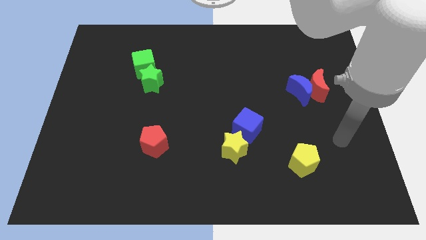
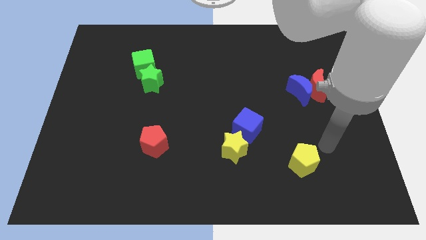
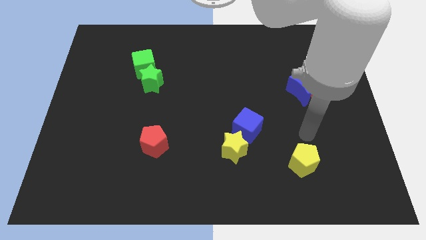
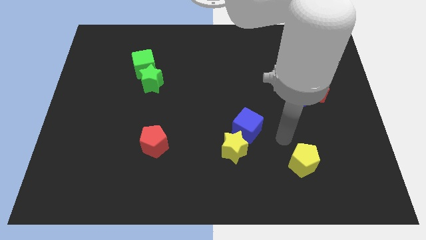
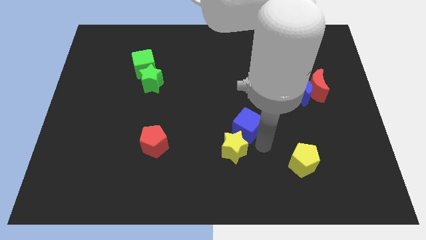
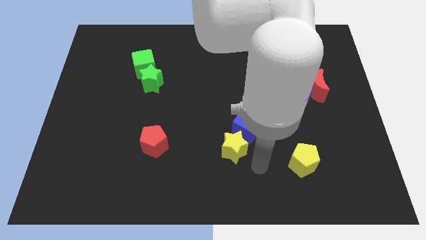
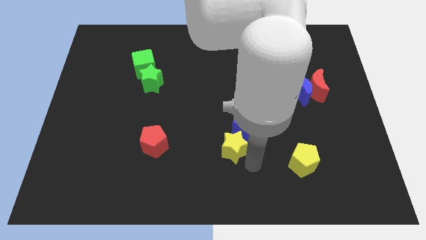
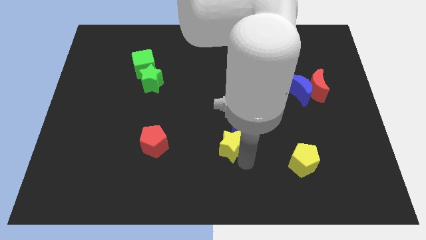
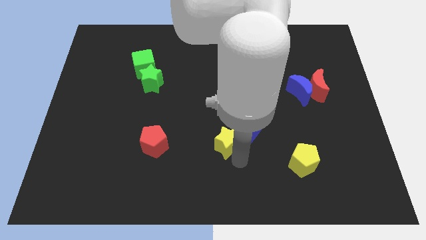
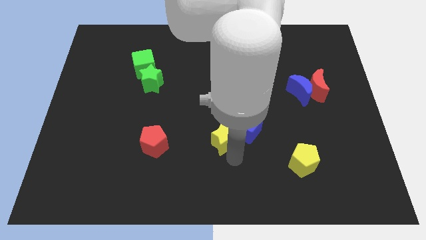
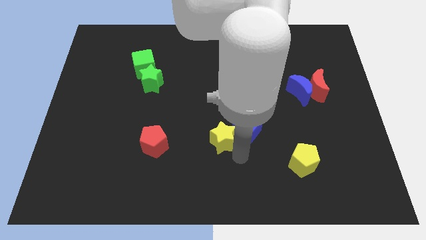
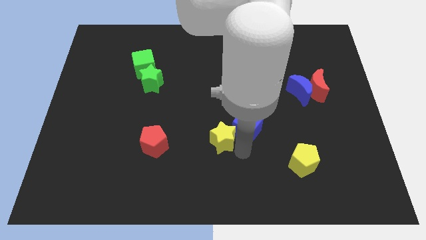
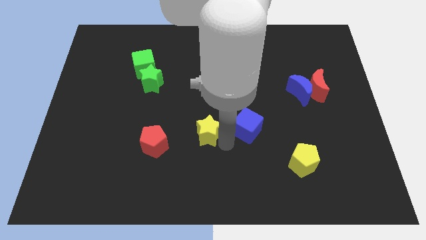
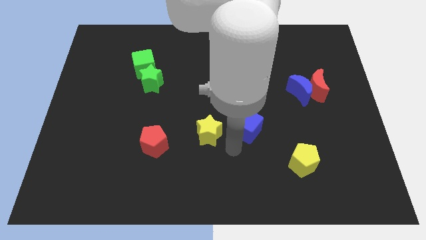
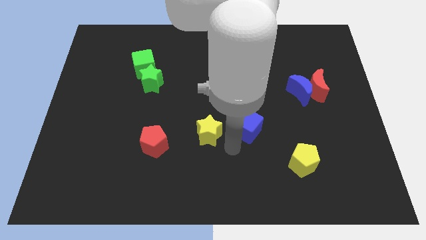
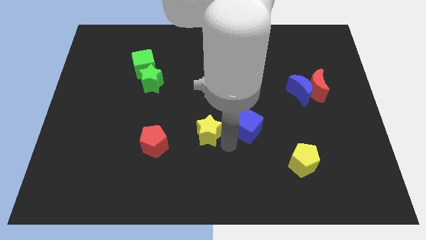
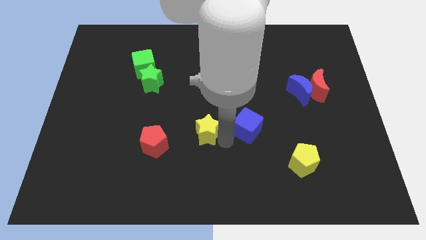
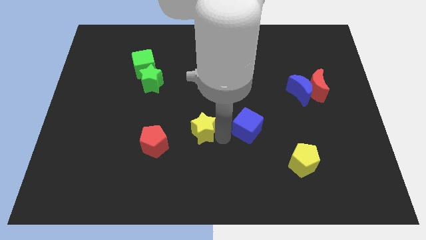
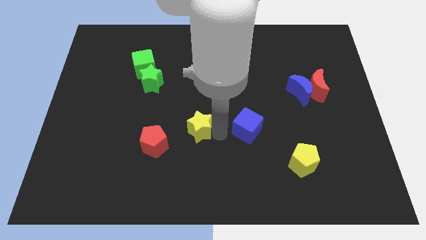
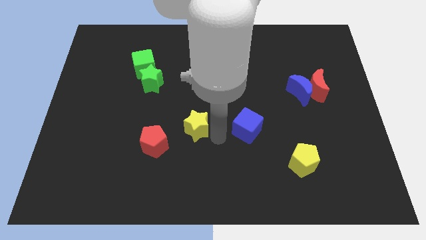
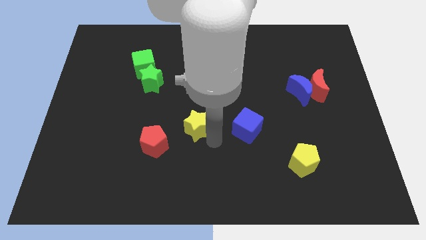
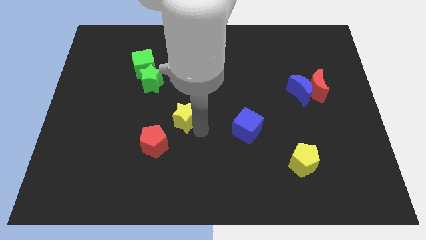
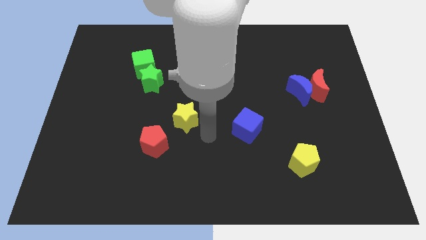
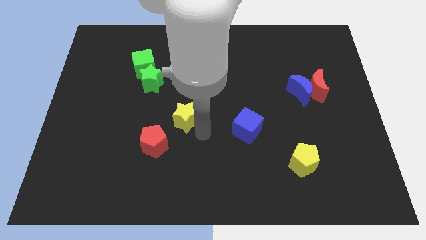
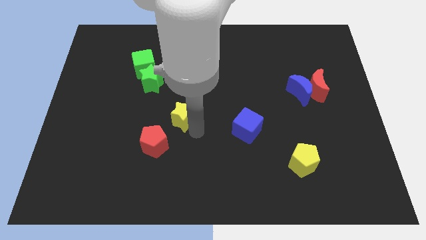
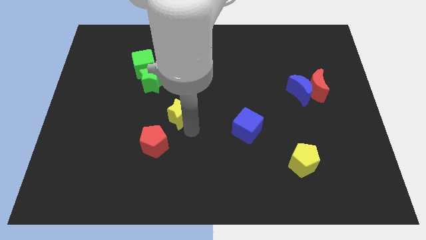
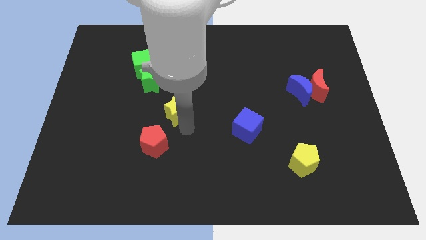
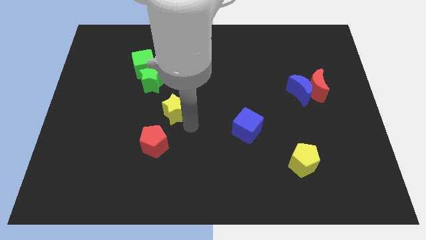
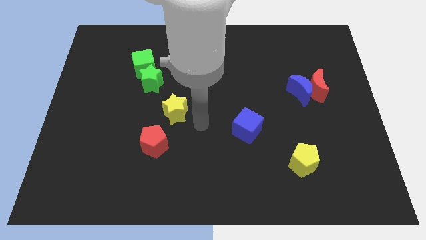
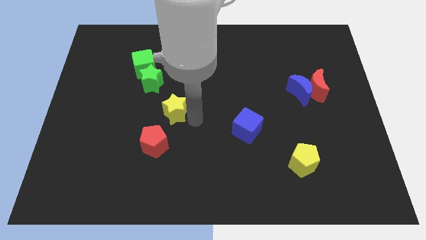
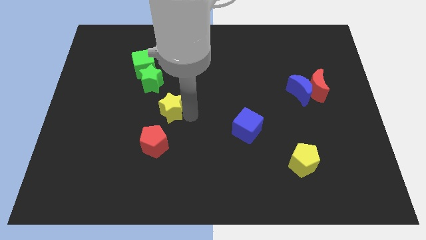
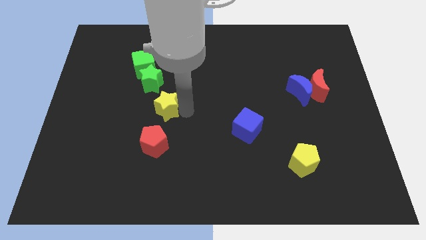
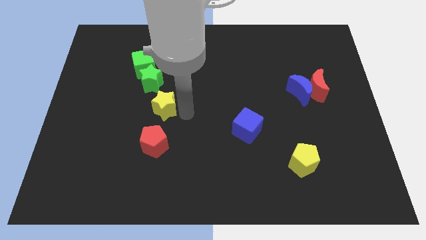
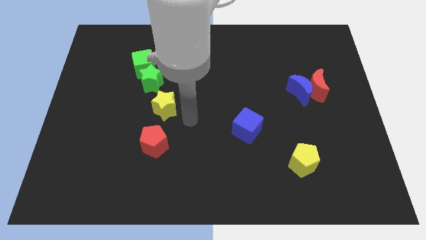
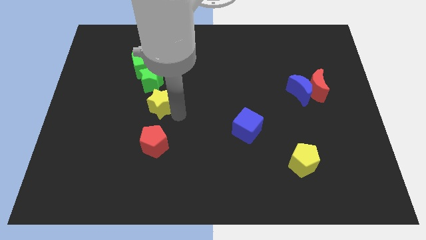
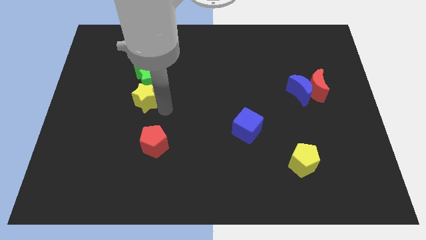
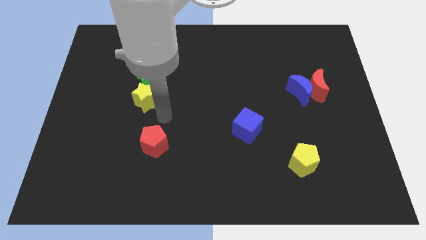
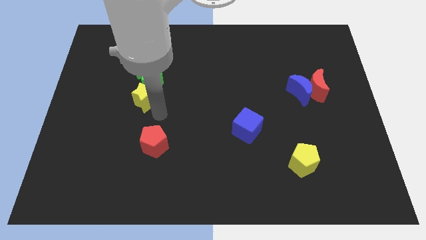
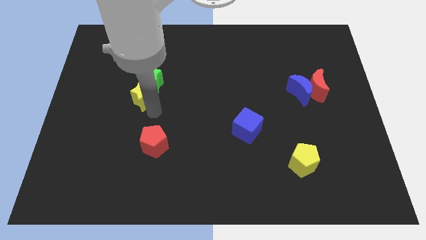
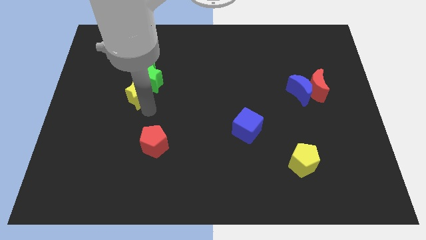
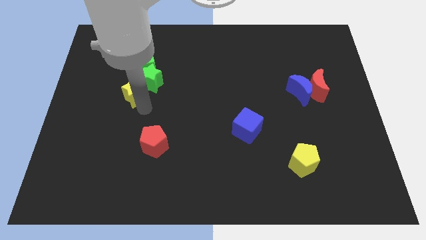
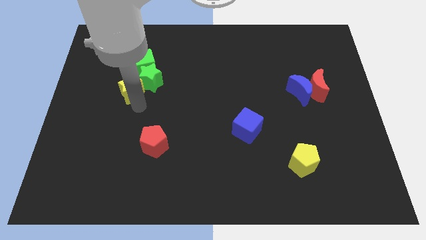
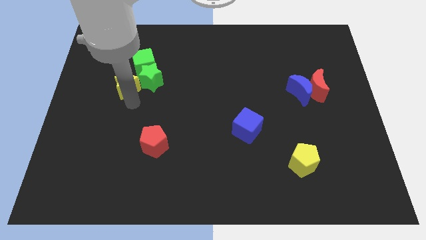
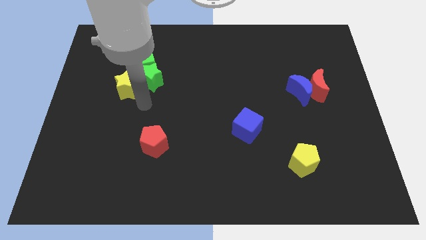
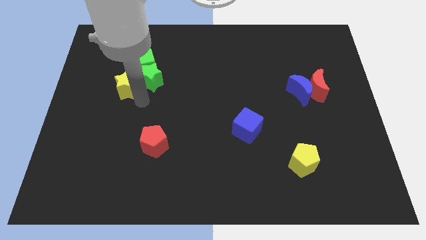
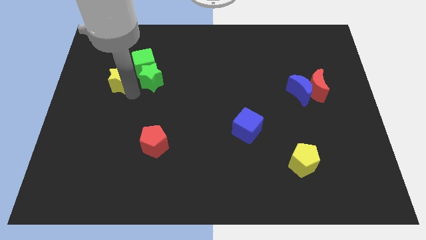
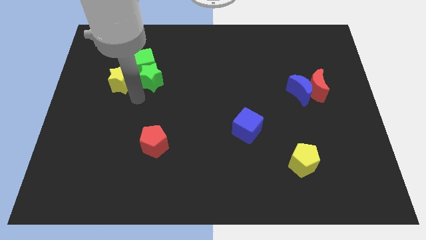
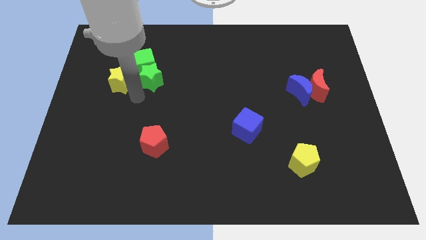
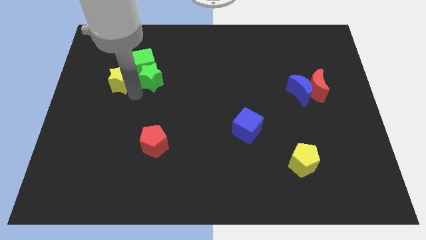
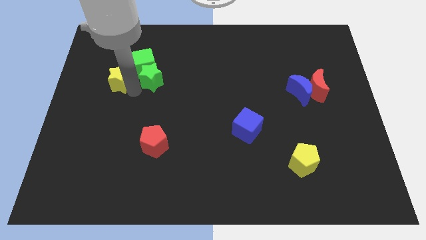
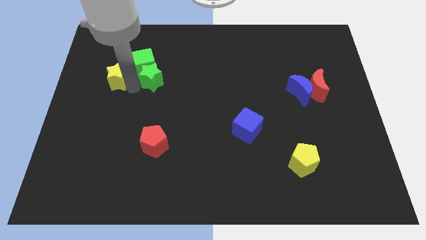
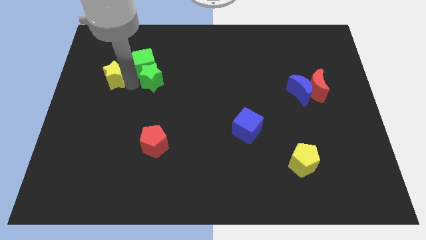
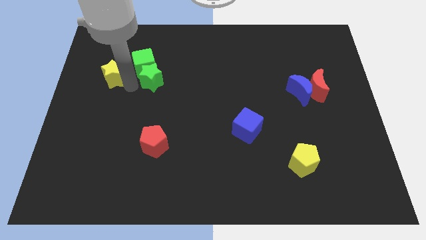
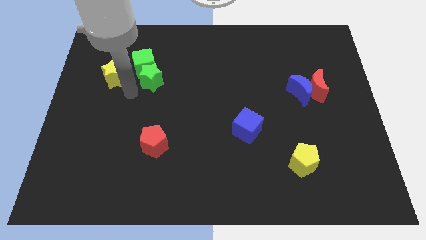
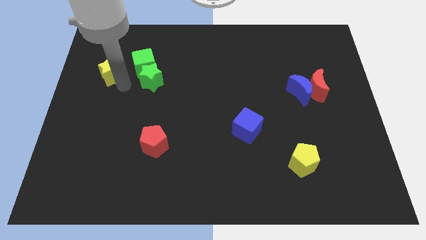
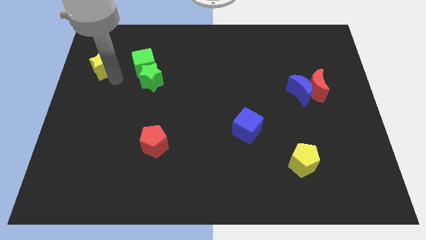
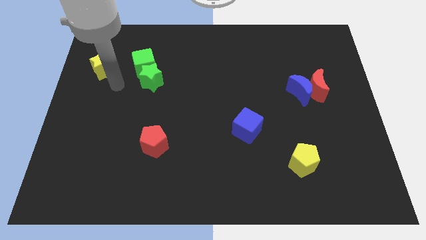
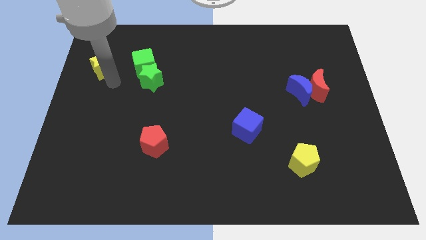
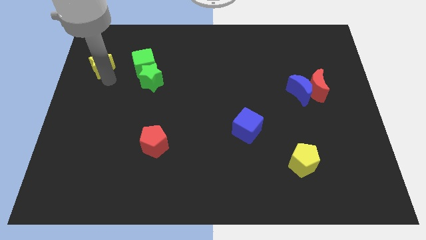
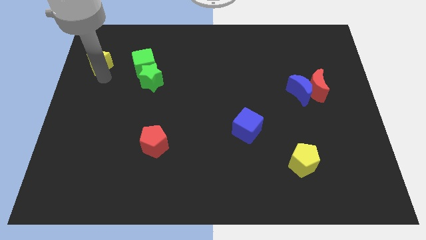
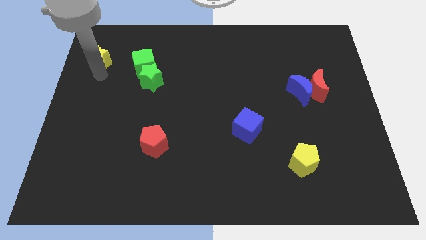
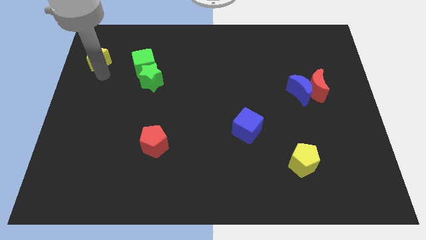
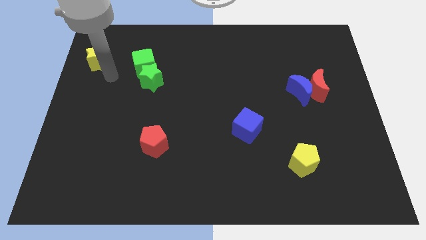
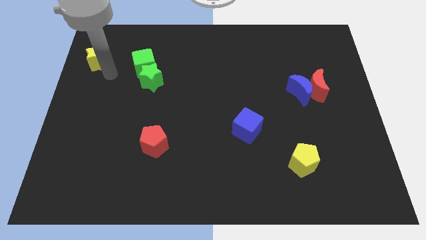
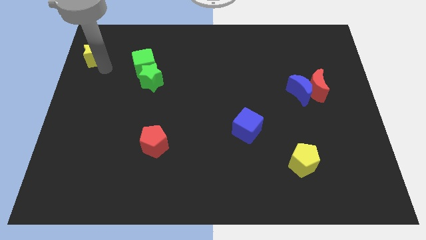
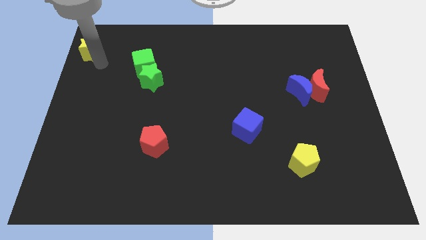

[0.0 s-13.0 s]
put the yellow star to the upper left corner
